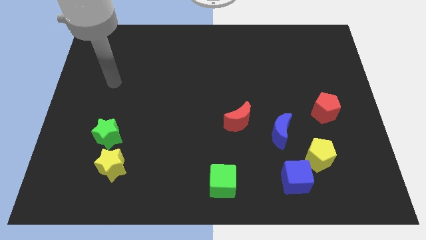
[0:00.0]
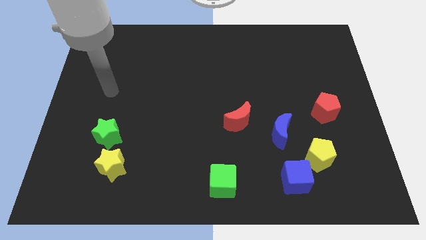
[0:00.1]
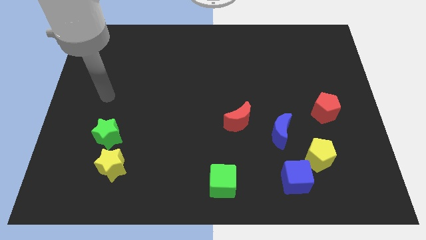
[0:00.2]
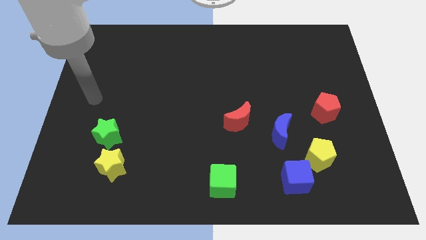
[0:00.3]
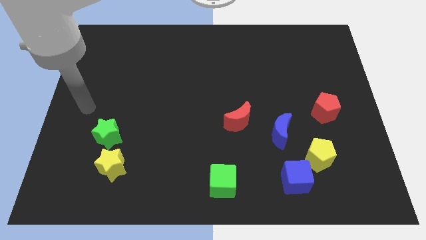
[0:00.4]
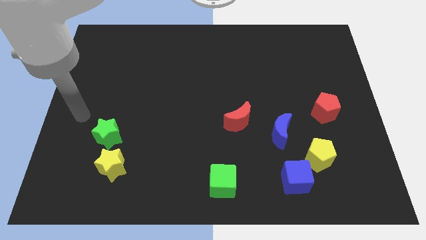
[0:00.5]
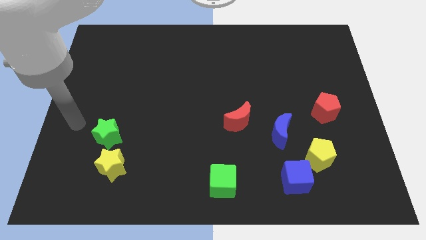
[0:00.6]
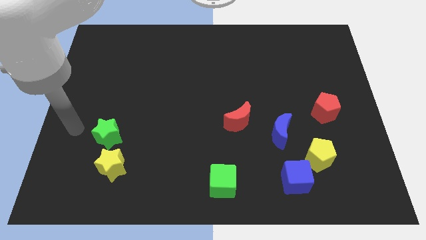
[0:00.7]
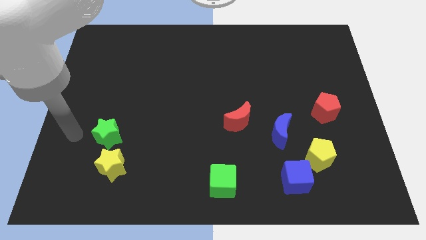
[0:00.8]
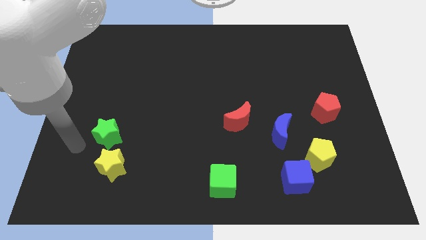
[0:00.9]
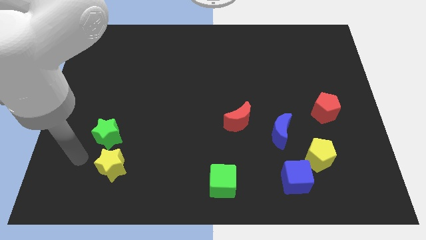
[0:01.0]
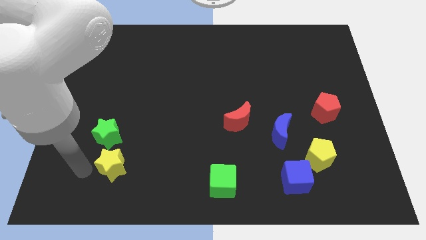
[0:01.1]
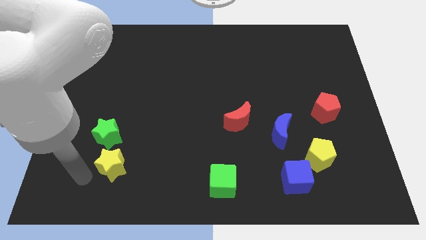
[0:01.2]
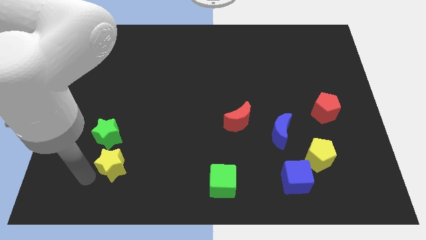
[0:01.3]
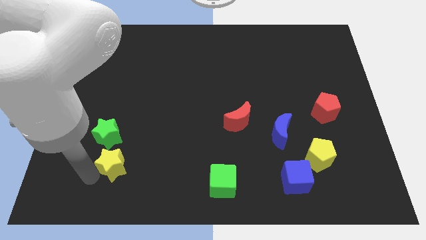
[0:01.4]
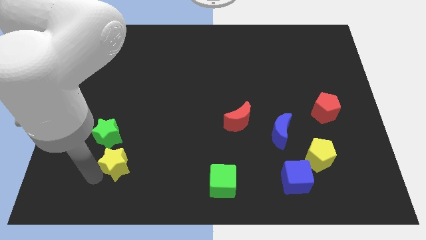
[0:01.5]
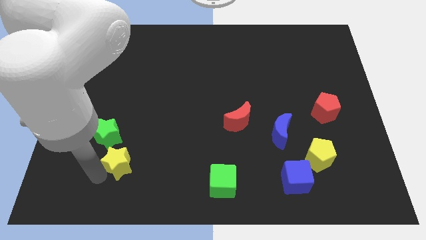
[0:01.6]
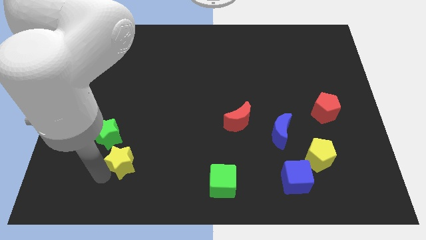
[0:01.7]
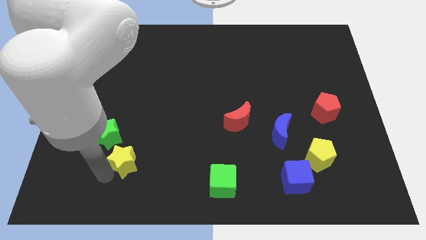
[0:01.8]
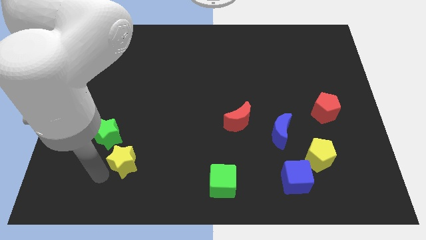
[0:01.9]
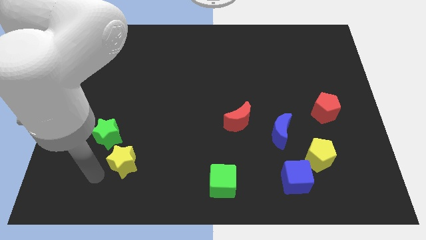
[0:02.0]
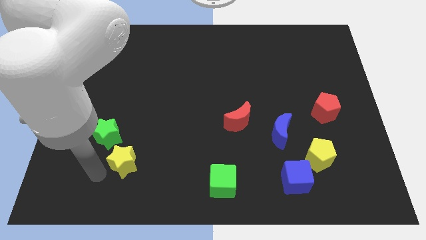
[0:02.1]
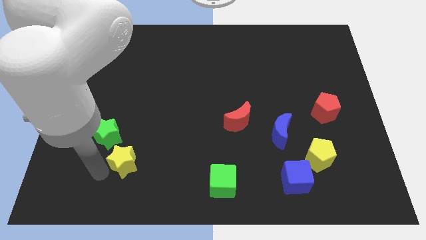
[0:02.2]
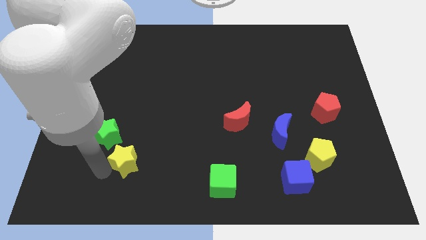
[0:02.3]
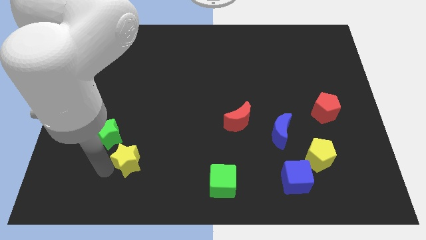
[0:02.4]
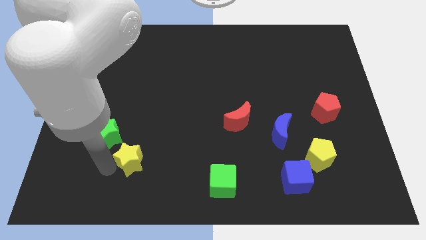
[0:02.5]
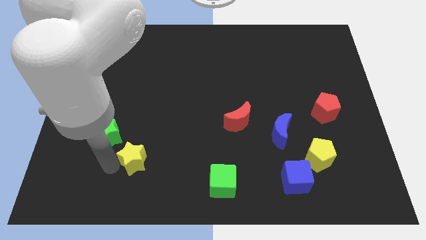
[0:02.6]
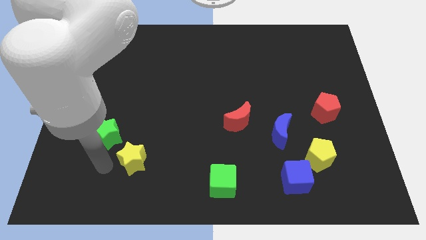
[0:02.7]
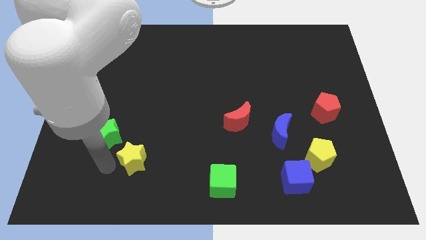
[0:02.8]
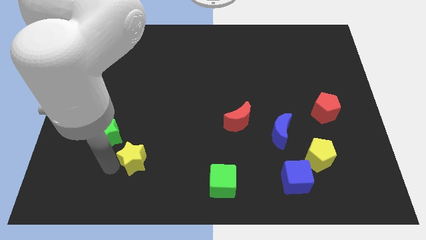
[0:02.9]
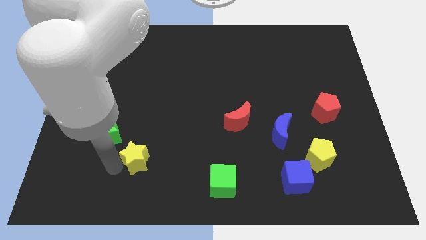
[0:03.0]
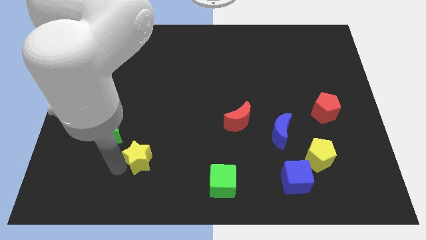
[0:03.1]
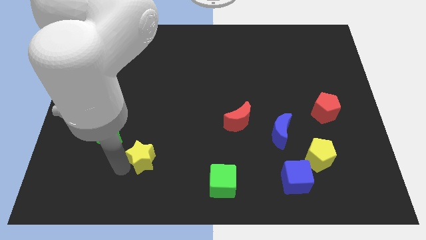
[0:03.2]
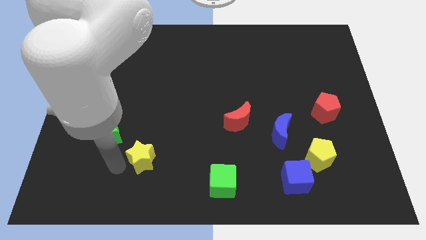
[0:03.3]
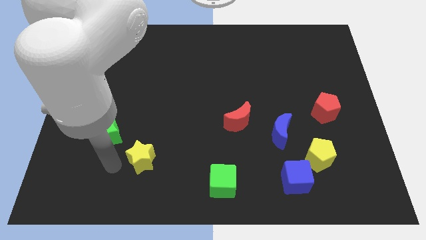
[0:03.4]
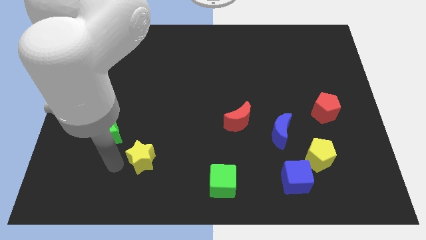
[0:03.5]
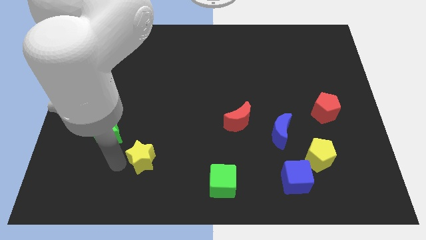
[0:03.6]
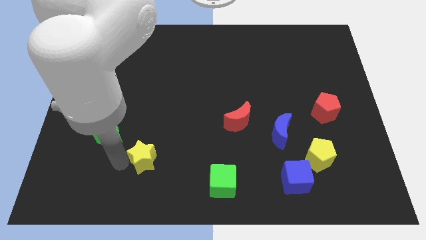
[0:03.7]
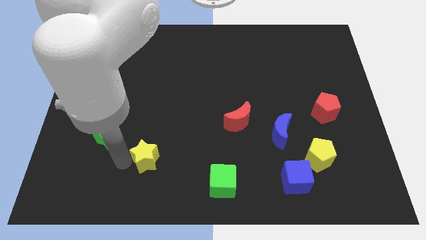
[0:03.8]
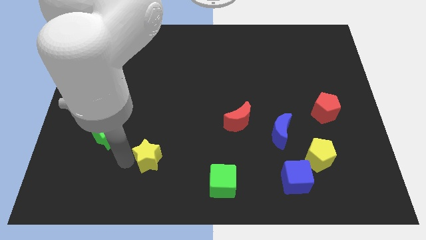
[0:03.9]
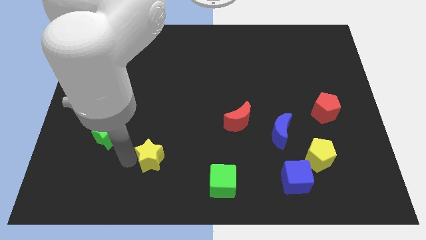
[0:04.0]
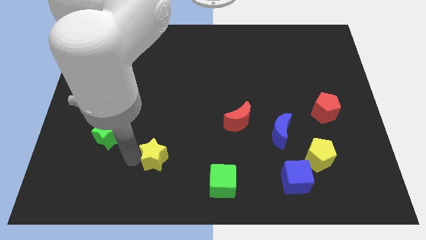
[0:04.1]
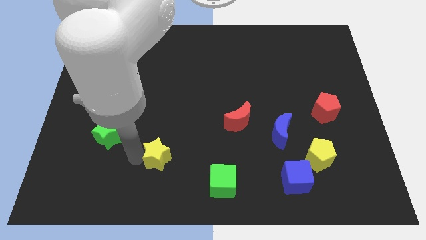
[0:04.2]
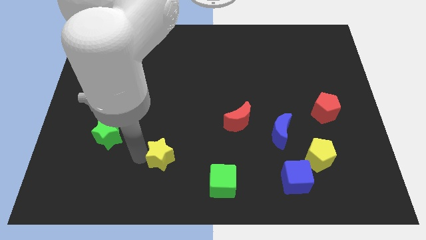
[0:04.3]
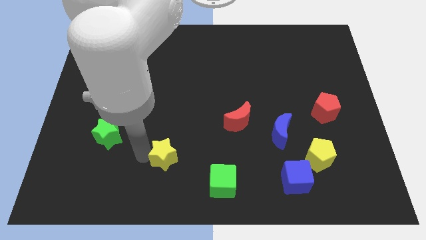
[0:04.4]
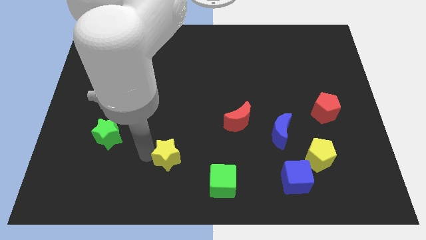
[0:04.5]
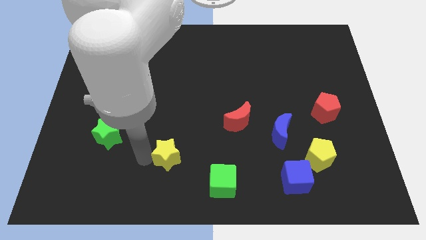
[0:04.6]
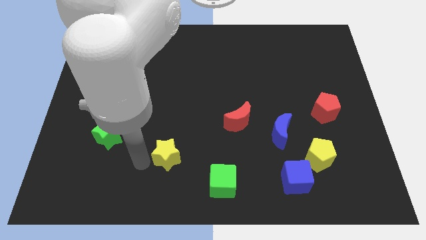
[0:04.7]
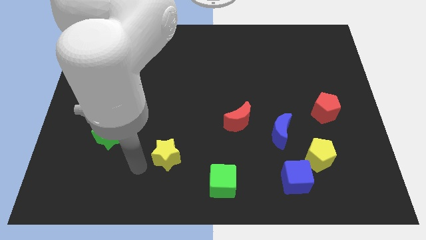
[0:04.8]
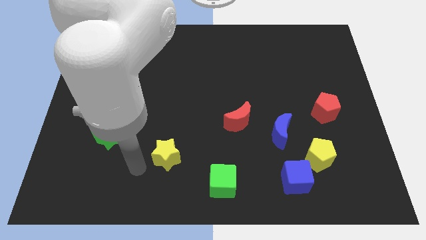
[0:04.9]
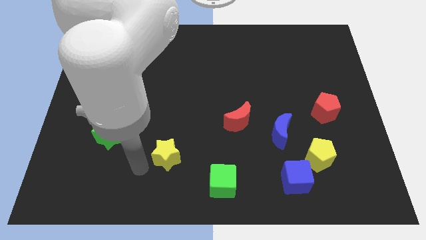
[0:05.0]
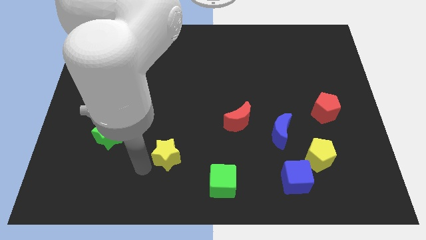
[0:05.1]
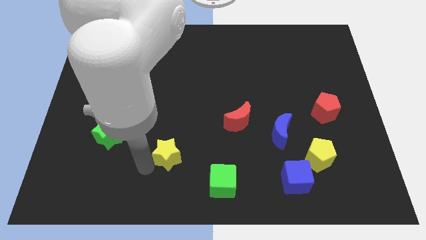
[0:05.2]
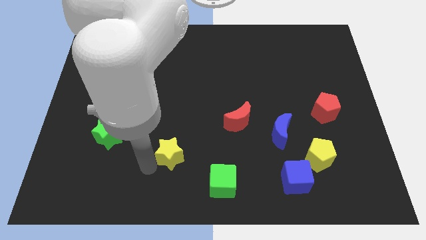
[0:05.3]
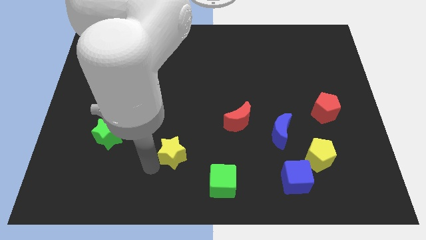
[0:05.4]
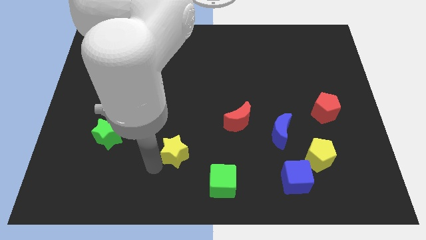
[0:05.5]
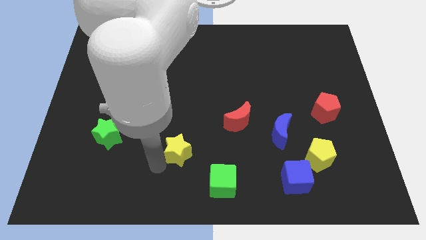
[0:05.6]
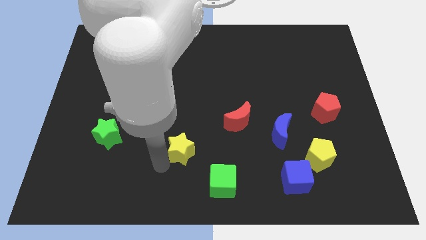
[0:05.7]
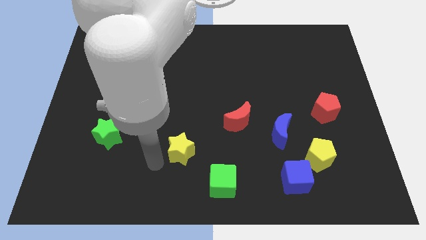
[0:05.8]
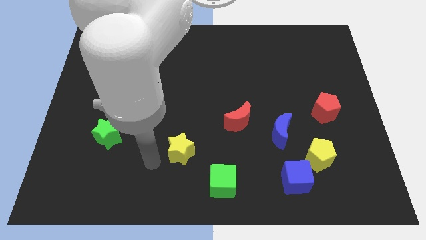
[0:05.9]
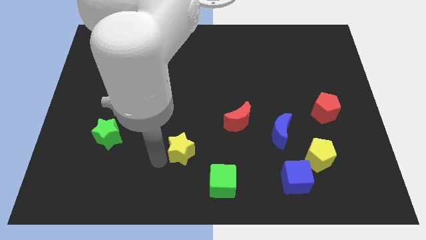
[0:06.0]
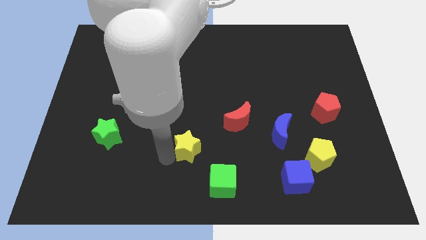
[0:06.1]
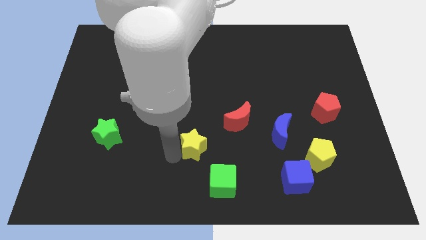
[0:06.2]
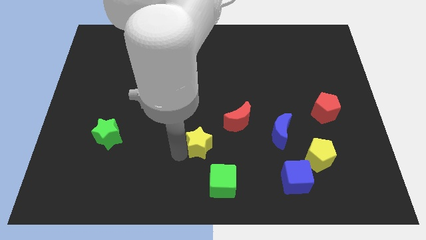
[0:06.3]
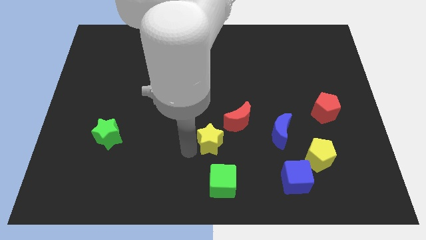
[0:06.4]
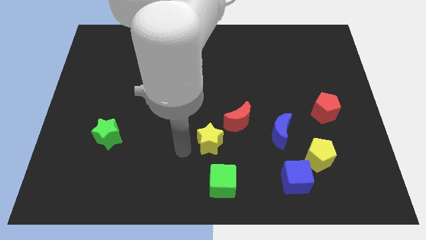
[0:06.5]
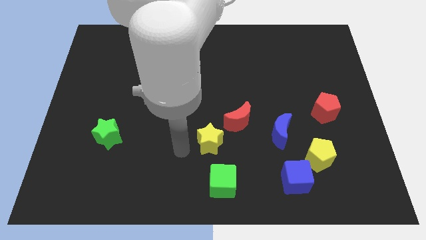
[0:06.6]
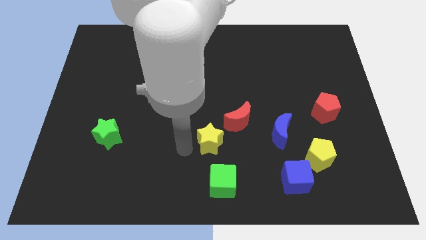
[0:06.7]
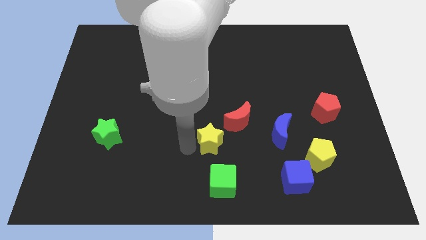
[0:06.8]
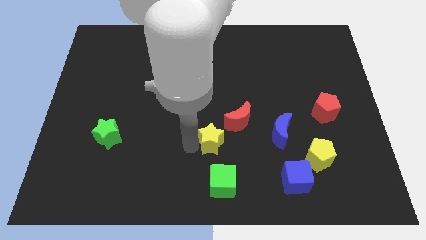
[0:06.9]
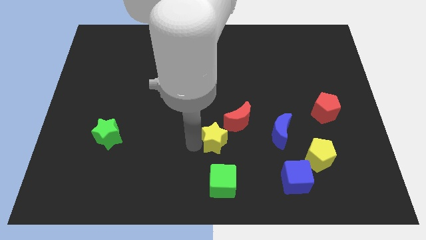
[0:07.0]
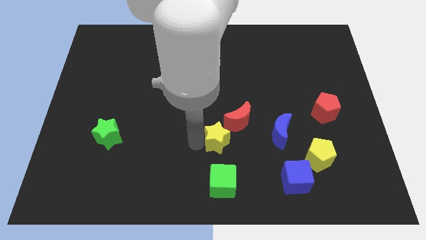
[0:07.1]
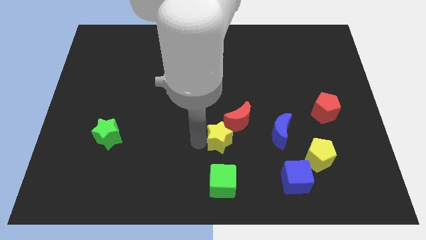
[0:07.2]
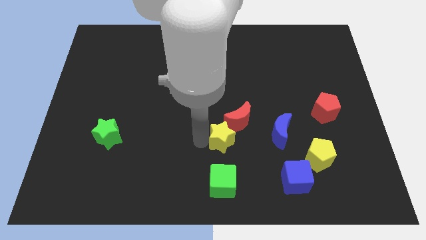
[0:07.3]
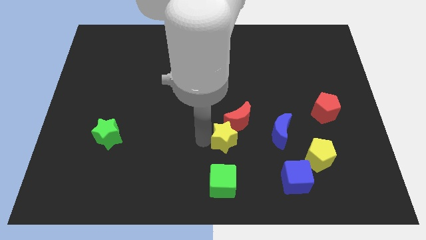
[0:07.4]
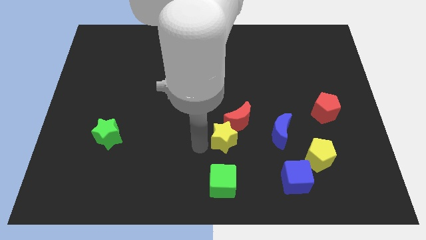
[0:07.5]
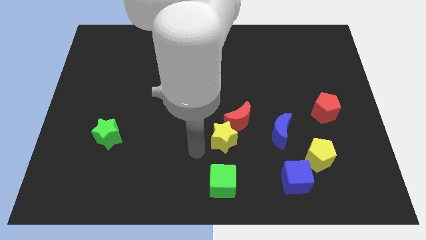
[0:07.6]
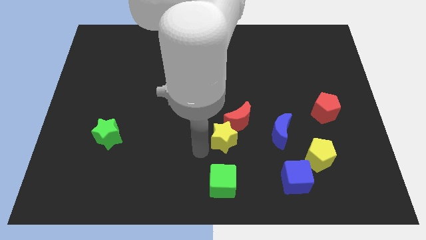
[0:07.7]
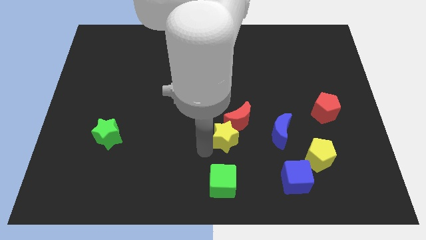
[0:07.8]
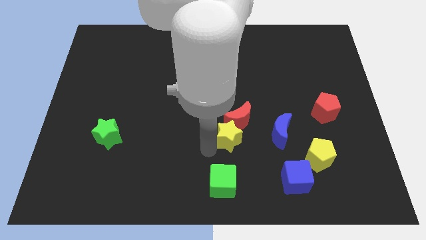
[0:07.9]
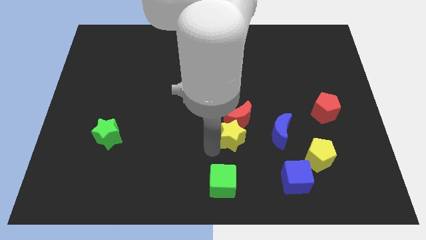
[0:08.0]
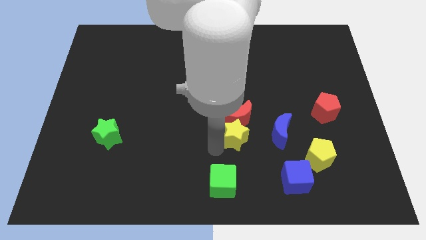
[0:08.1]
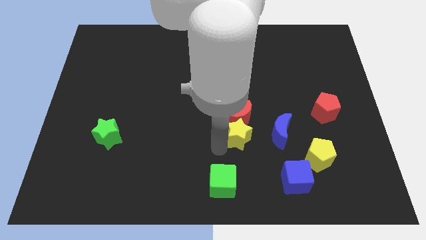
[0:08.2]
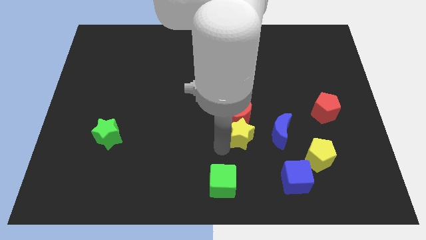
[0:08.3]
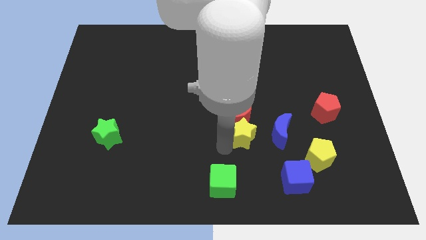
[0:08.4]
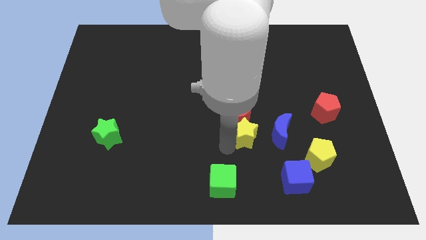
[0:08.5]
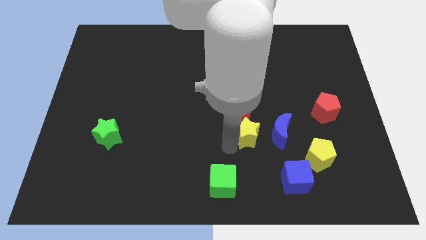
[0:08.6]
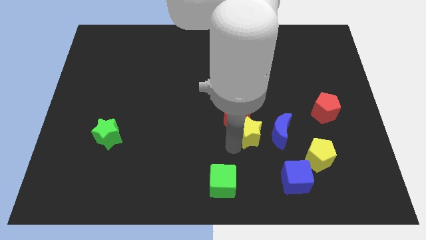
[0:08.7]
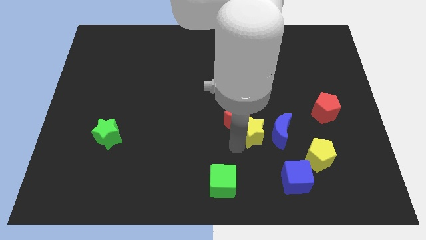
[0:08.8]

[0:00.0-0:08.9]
push the yellow star to the top left of the blue moon
